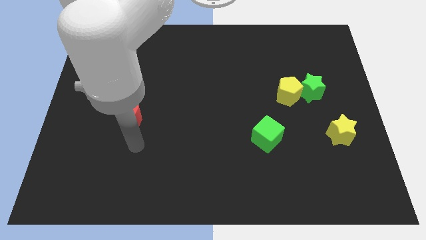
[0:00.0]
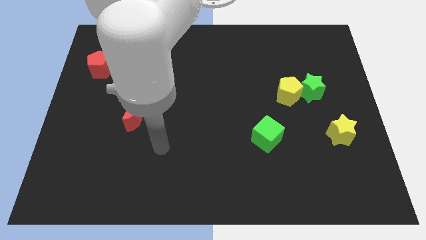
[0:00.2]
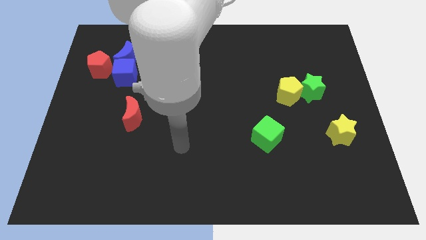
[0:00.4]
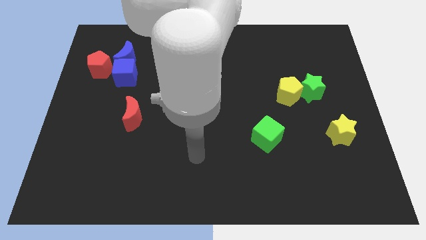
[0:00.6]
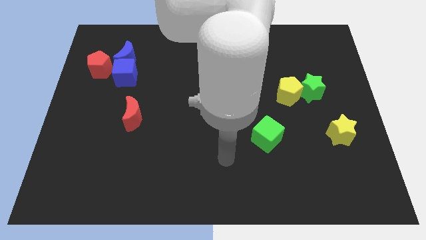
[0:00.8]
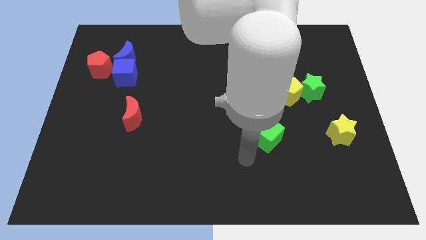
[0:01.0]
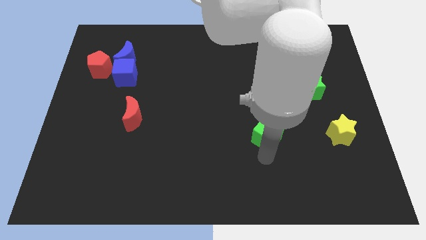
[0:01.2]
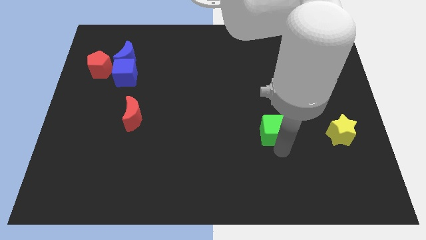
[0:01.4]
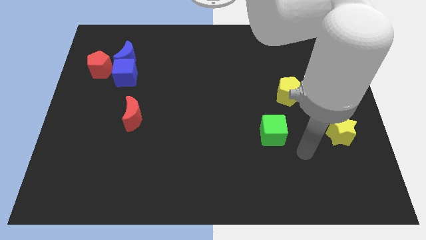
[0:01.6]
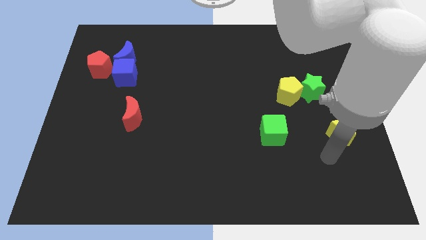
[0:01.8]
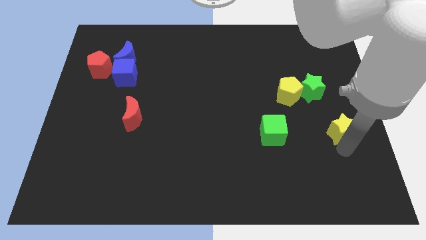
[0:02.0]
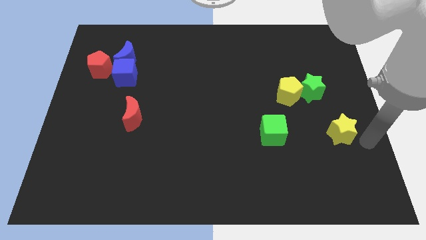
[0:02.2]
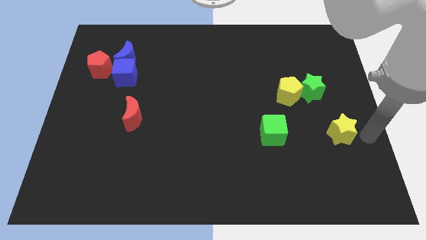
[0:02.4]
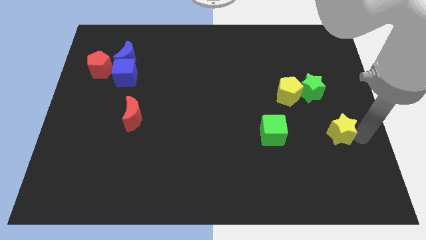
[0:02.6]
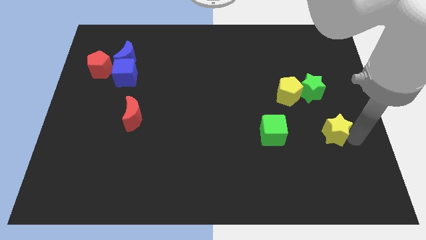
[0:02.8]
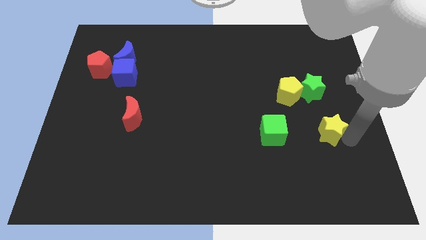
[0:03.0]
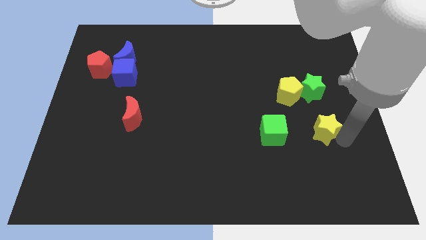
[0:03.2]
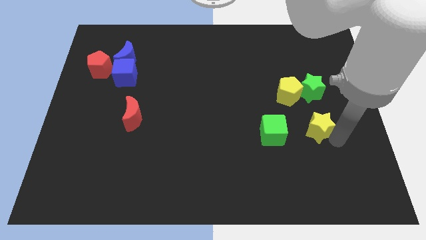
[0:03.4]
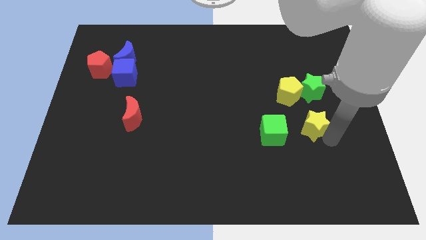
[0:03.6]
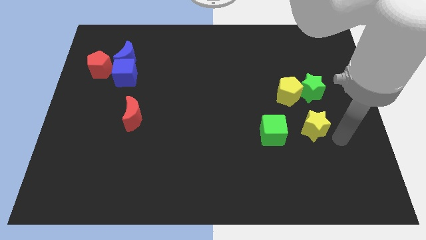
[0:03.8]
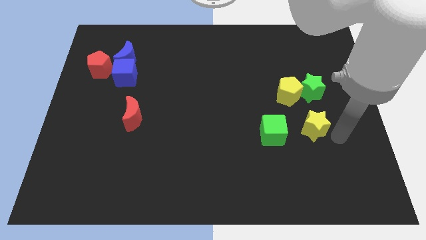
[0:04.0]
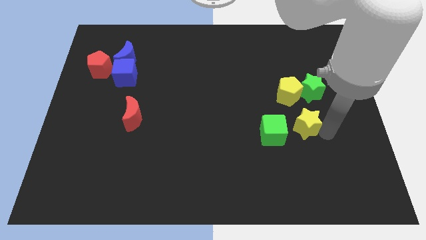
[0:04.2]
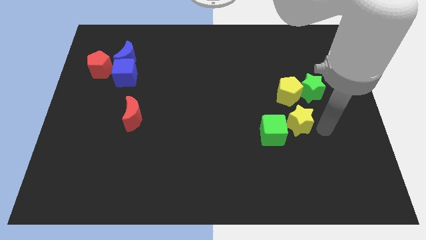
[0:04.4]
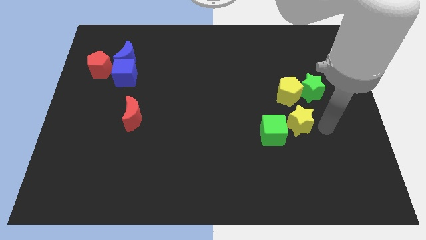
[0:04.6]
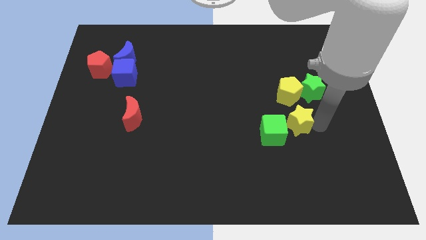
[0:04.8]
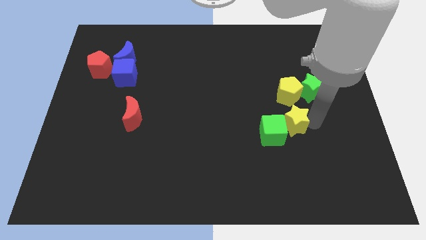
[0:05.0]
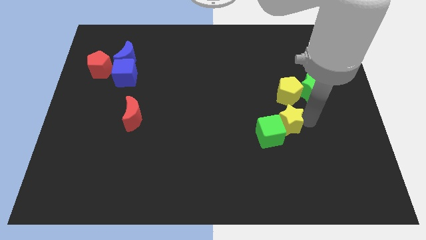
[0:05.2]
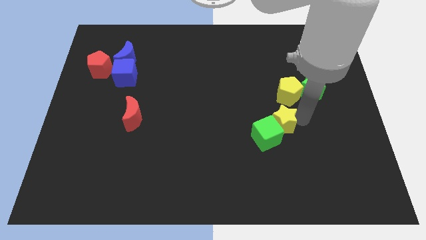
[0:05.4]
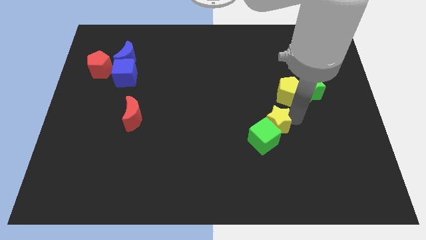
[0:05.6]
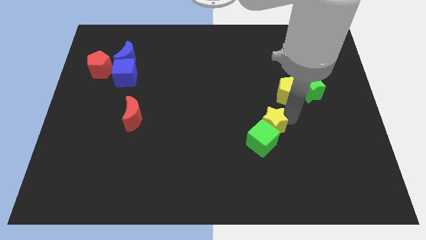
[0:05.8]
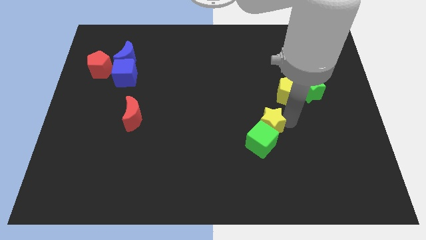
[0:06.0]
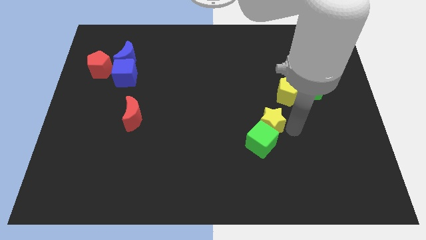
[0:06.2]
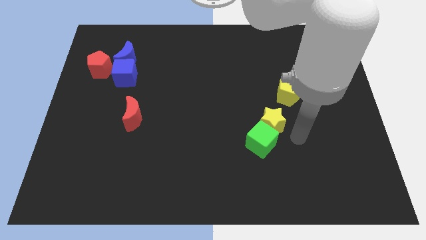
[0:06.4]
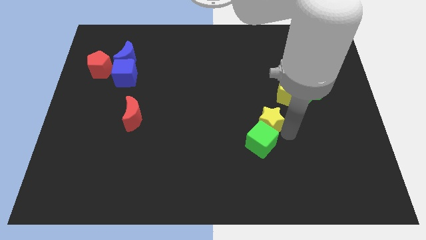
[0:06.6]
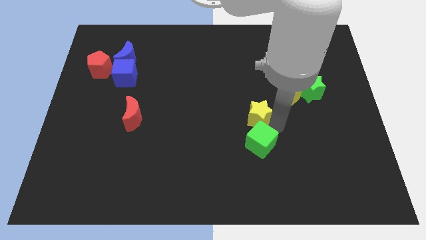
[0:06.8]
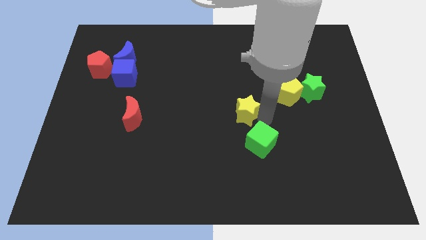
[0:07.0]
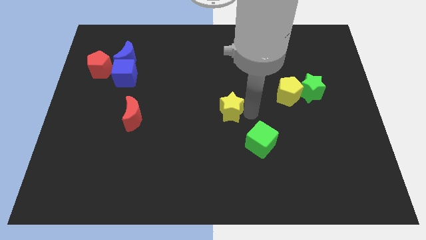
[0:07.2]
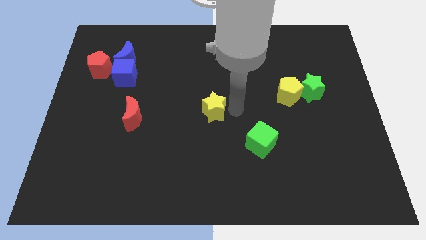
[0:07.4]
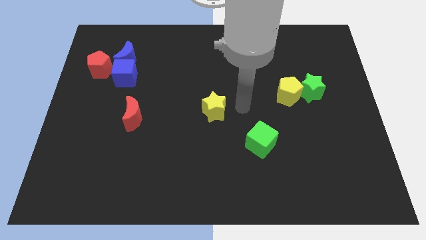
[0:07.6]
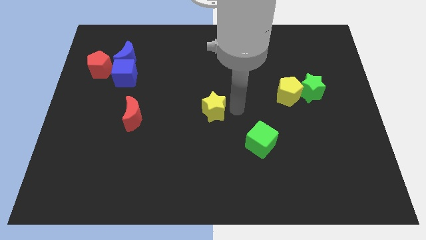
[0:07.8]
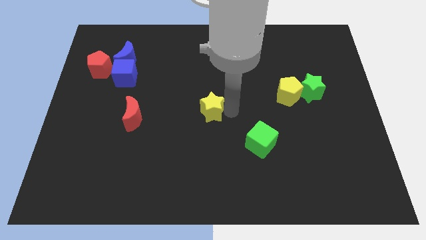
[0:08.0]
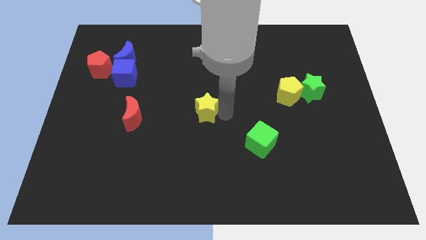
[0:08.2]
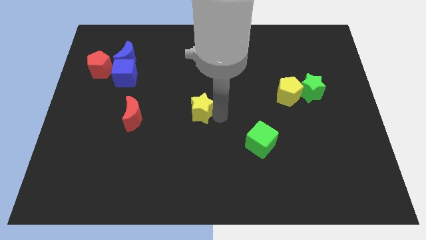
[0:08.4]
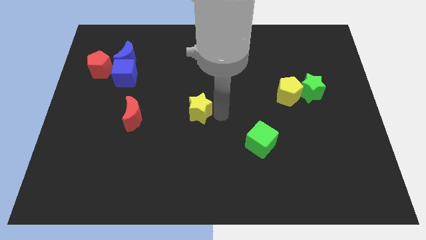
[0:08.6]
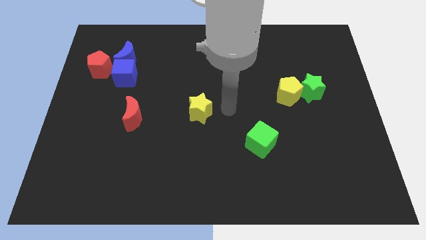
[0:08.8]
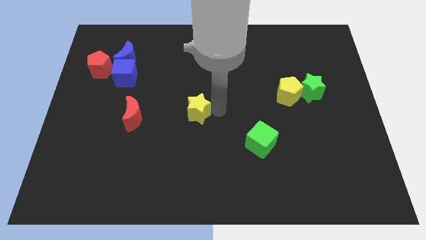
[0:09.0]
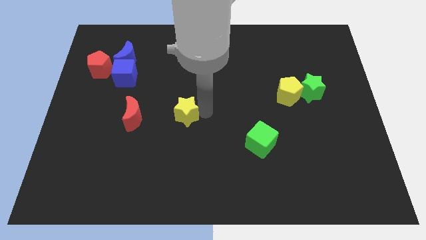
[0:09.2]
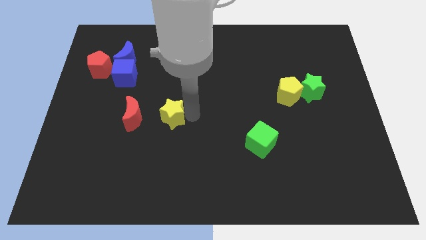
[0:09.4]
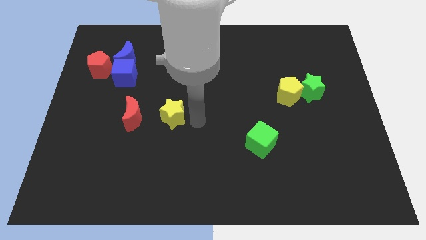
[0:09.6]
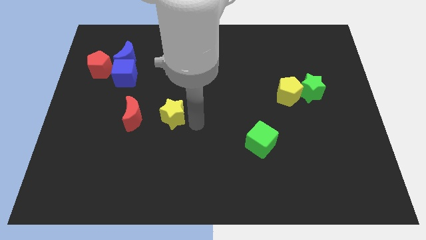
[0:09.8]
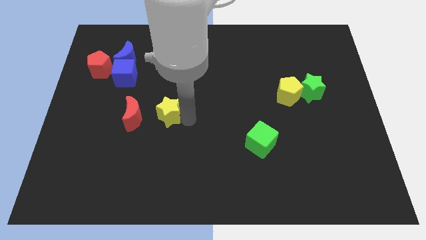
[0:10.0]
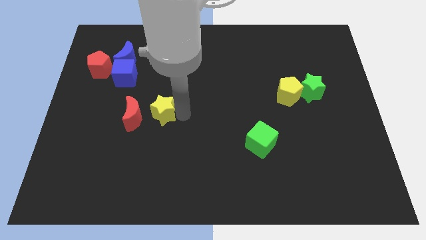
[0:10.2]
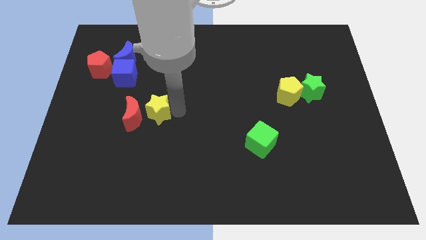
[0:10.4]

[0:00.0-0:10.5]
slide the yellow star to the red moon
